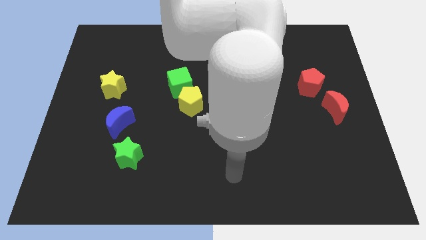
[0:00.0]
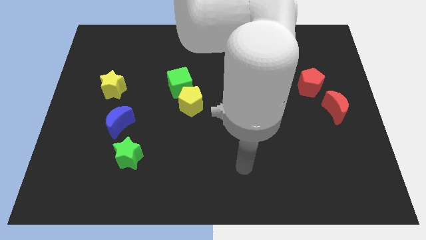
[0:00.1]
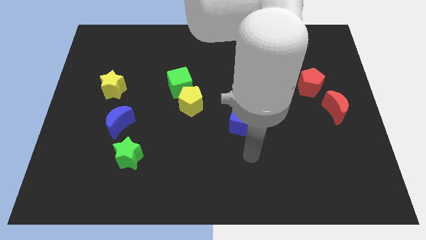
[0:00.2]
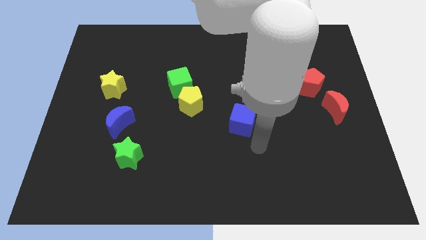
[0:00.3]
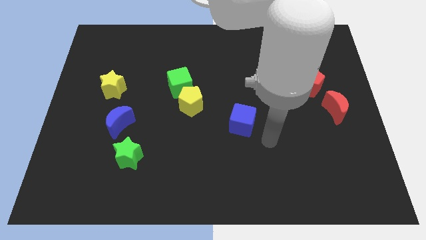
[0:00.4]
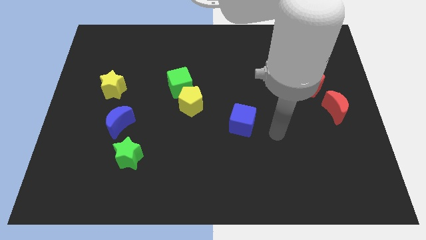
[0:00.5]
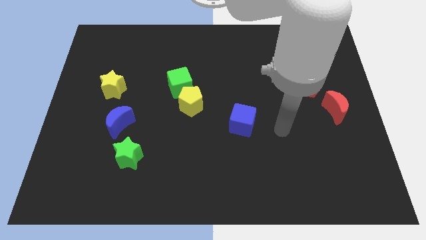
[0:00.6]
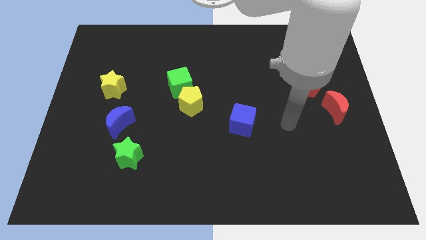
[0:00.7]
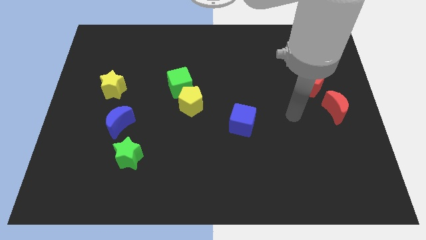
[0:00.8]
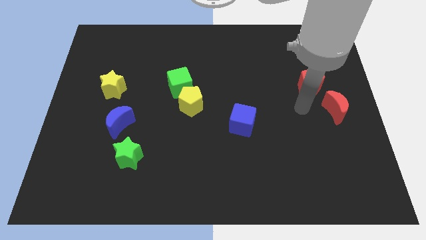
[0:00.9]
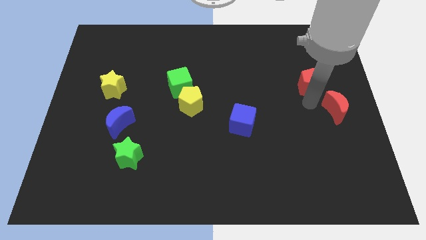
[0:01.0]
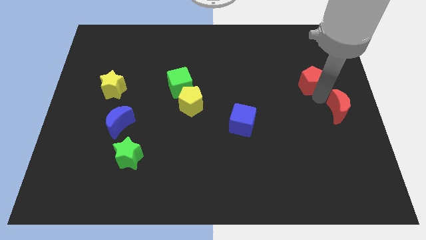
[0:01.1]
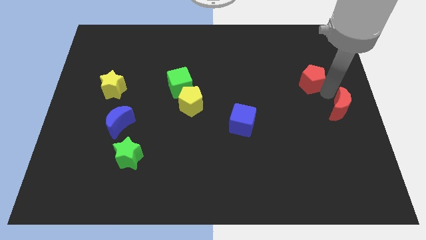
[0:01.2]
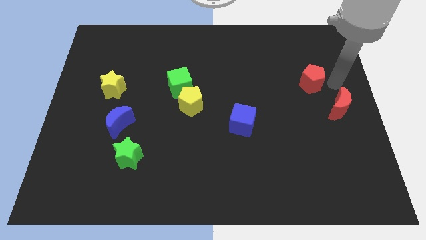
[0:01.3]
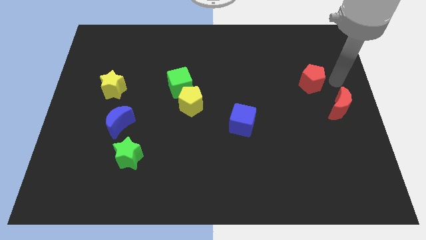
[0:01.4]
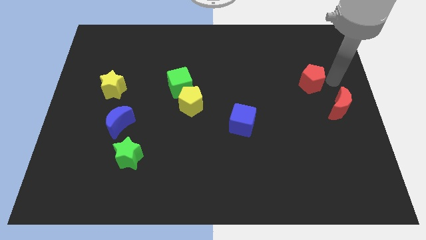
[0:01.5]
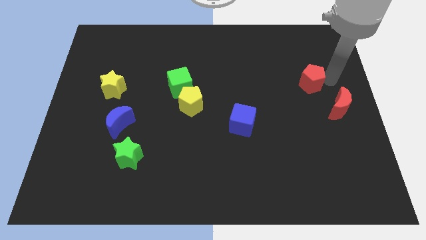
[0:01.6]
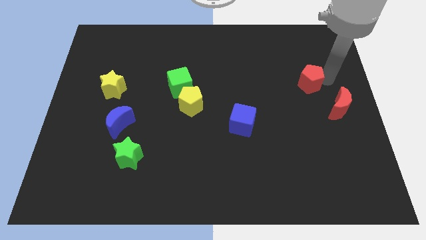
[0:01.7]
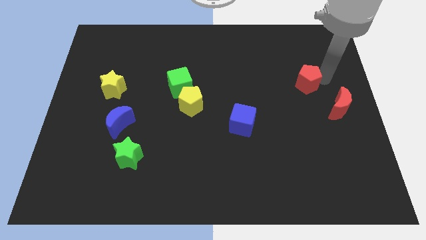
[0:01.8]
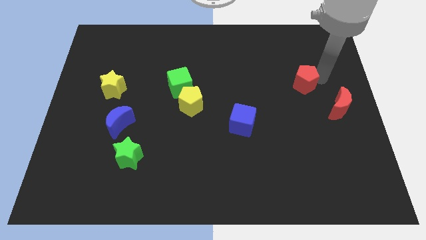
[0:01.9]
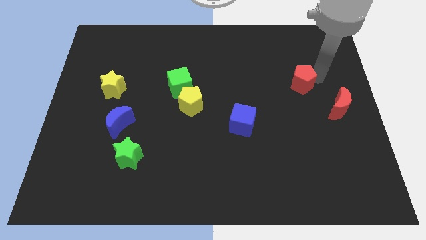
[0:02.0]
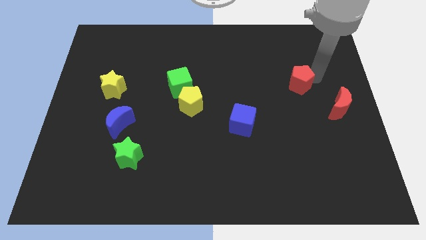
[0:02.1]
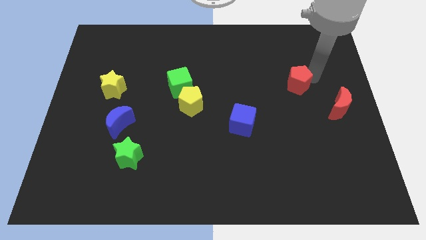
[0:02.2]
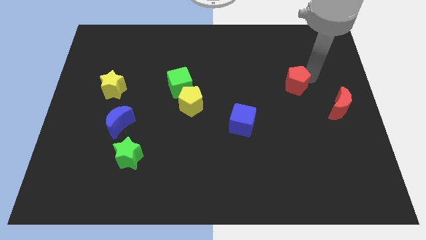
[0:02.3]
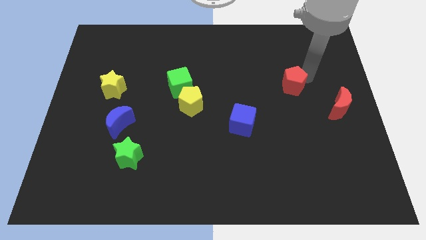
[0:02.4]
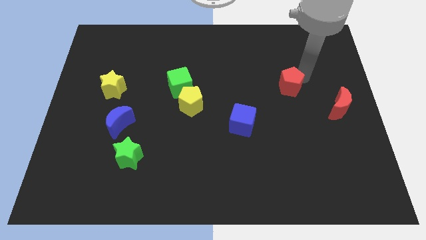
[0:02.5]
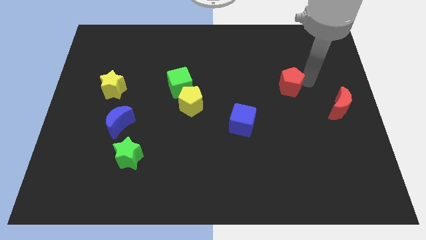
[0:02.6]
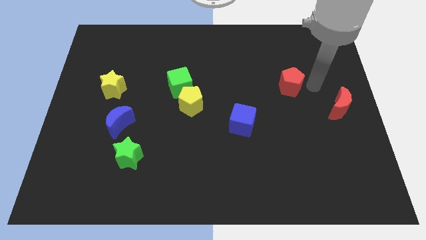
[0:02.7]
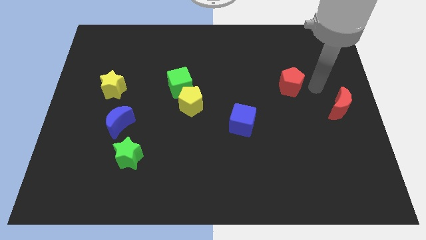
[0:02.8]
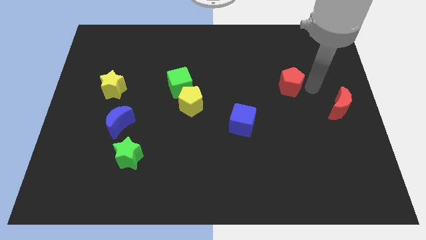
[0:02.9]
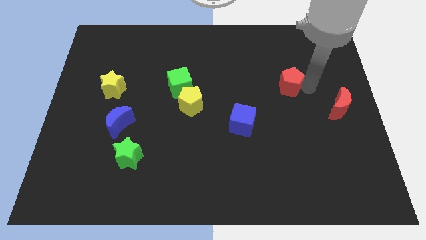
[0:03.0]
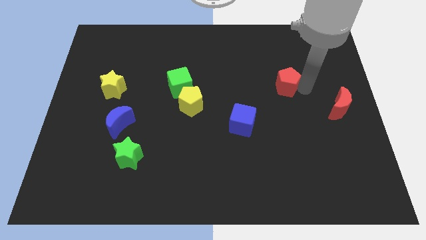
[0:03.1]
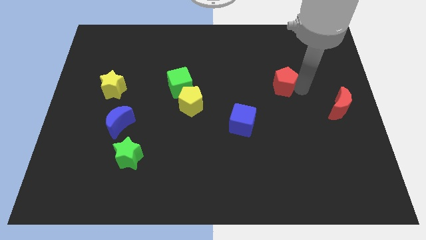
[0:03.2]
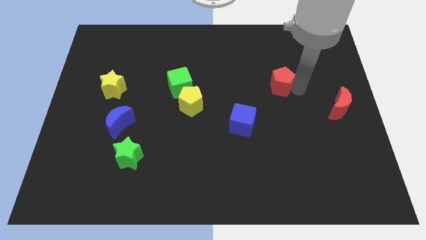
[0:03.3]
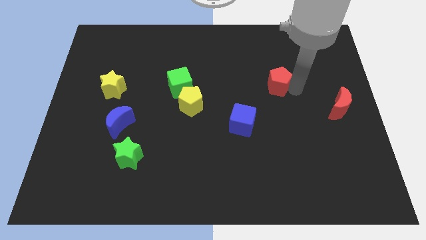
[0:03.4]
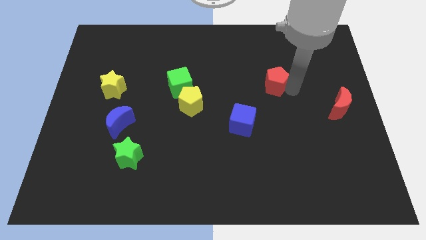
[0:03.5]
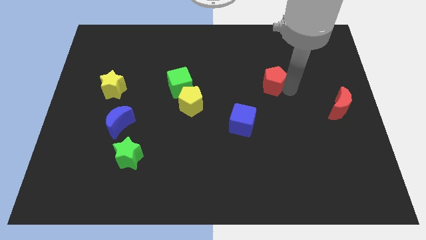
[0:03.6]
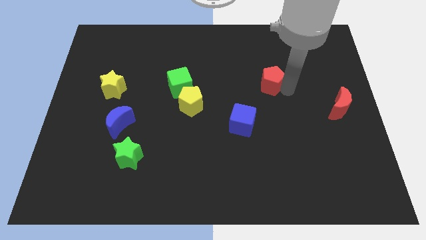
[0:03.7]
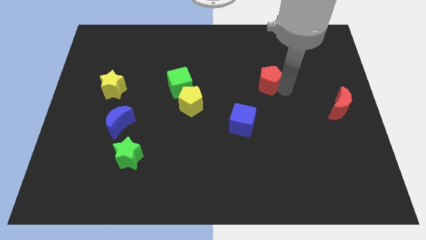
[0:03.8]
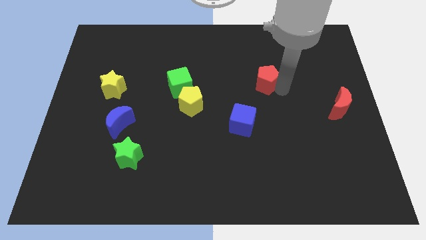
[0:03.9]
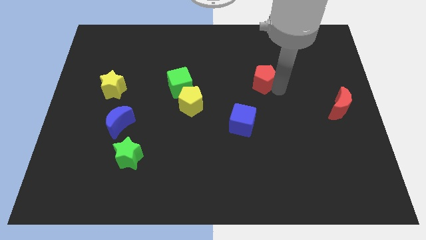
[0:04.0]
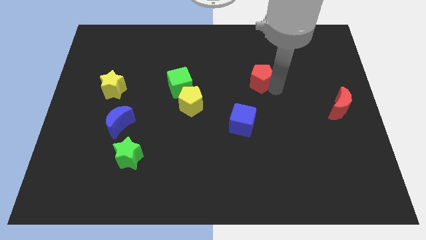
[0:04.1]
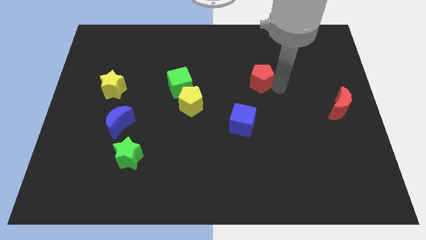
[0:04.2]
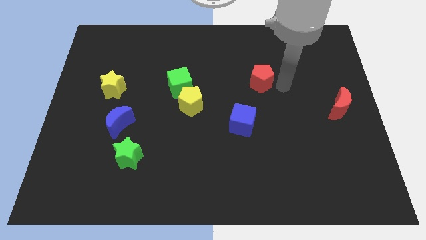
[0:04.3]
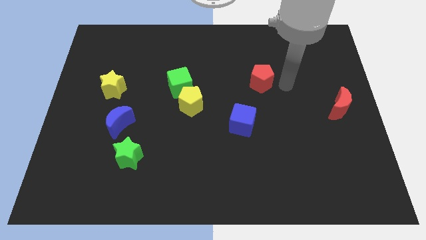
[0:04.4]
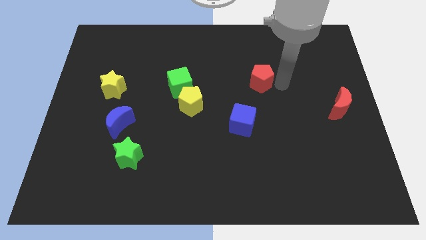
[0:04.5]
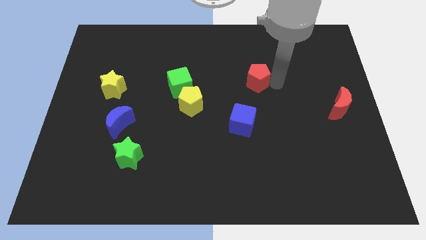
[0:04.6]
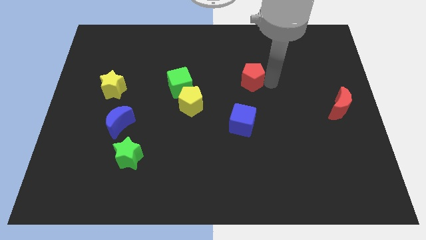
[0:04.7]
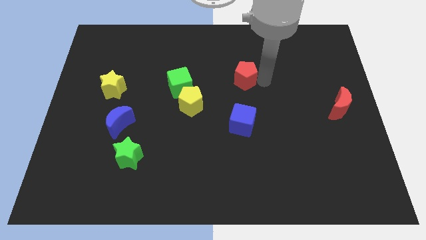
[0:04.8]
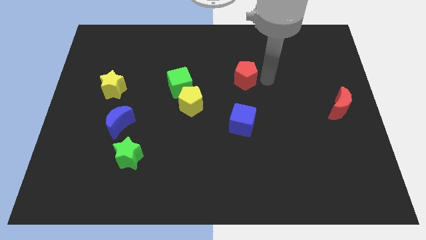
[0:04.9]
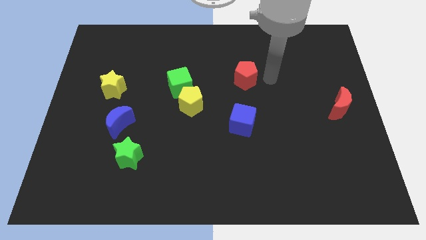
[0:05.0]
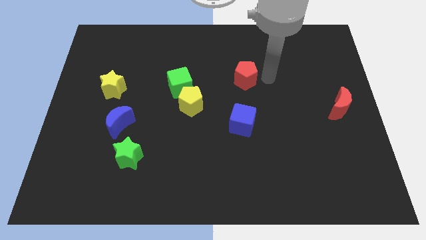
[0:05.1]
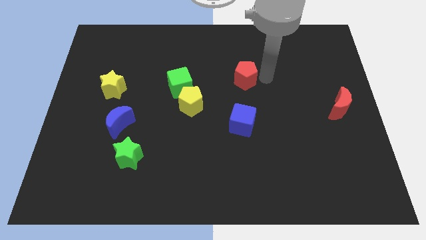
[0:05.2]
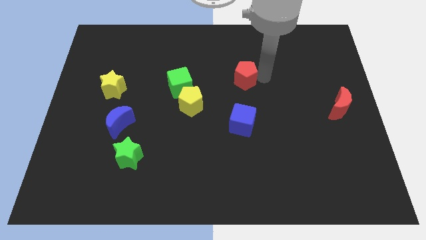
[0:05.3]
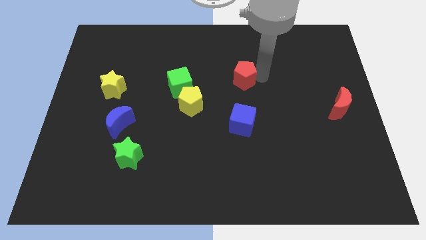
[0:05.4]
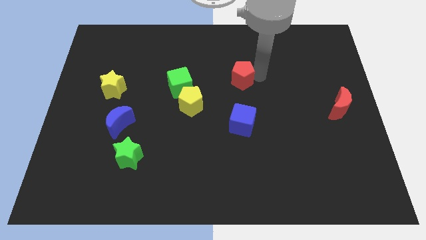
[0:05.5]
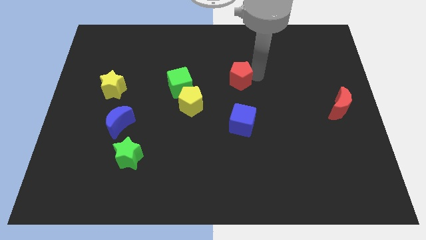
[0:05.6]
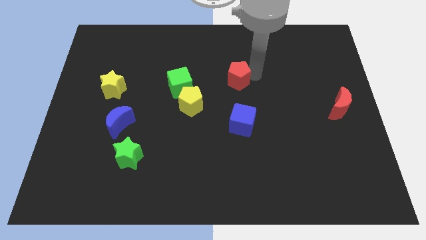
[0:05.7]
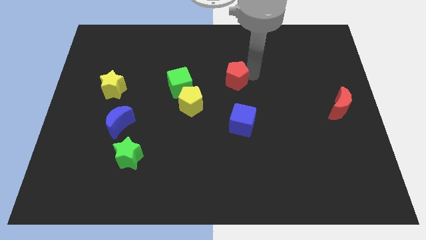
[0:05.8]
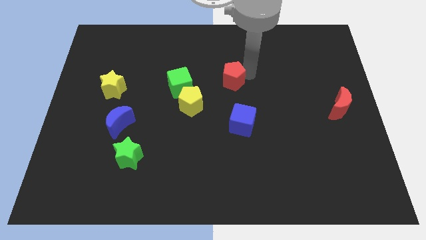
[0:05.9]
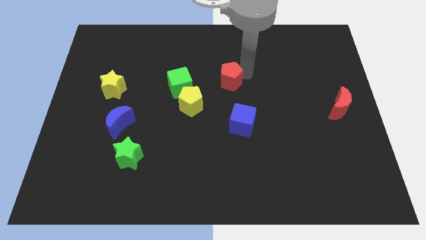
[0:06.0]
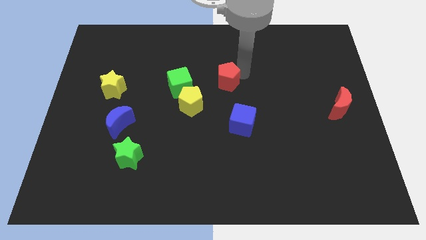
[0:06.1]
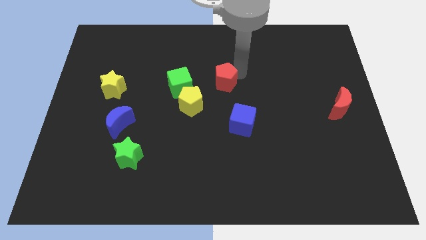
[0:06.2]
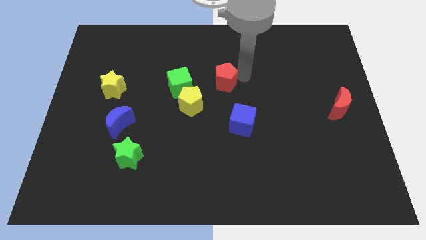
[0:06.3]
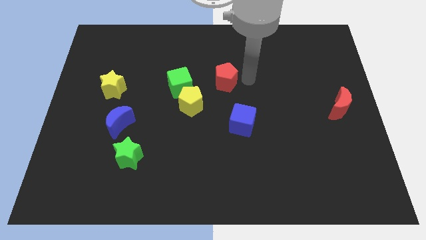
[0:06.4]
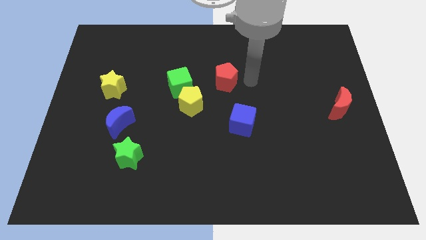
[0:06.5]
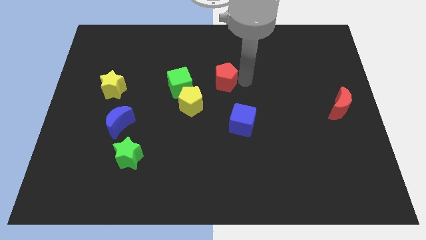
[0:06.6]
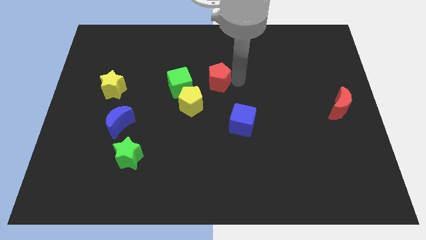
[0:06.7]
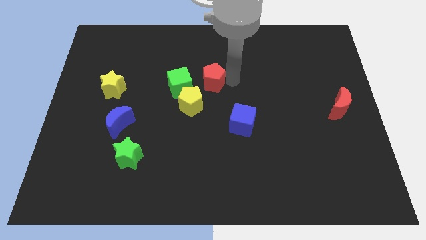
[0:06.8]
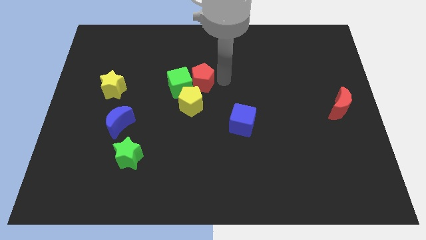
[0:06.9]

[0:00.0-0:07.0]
put the red pentagon next to the green cube
